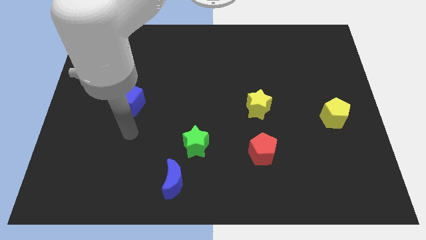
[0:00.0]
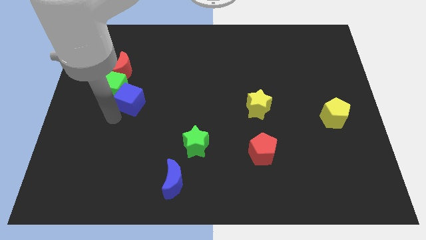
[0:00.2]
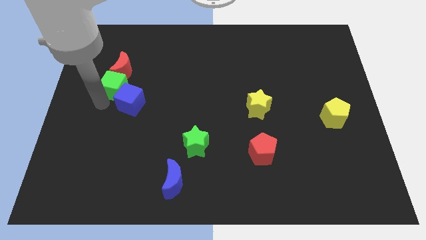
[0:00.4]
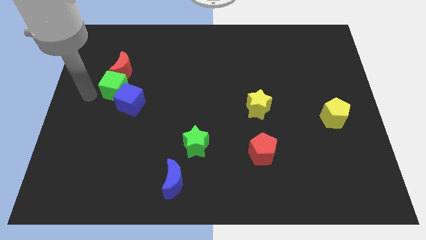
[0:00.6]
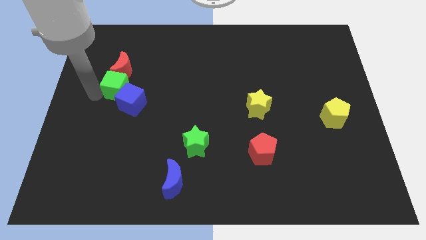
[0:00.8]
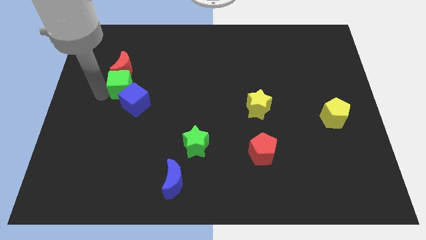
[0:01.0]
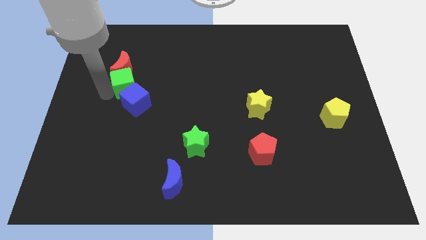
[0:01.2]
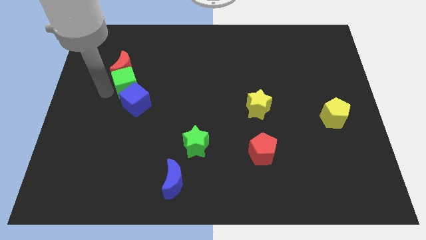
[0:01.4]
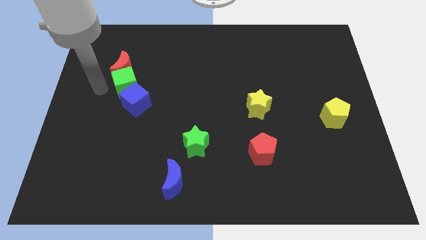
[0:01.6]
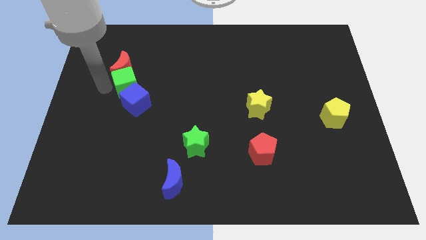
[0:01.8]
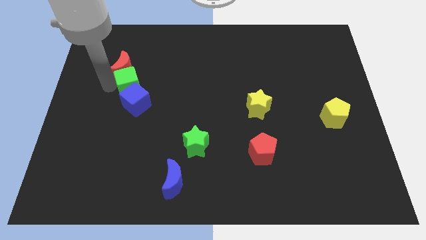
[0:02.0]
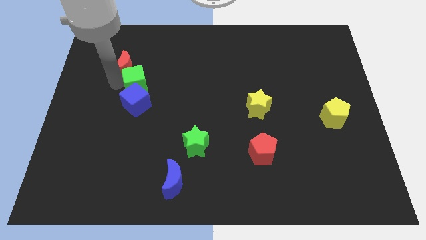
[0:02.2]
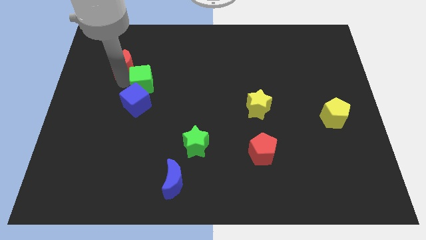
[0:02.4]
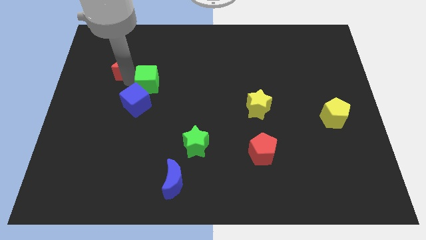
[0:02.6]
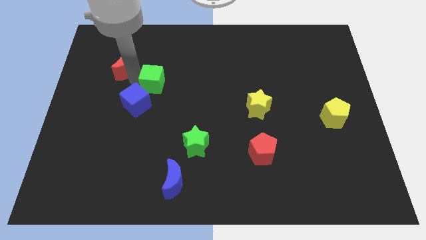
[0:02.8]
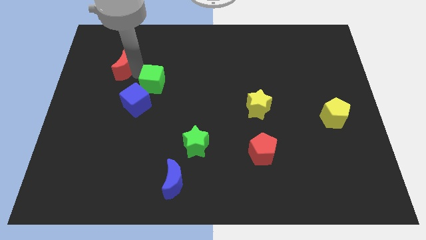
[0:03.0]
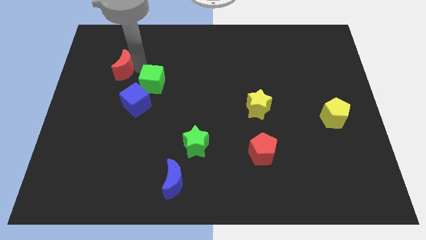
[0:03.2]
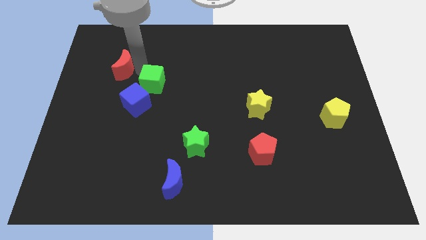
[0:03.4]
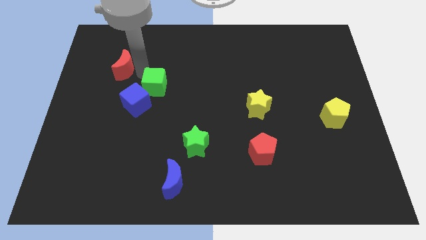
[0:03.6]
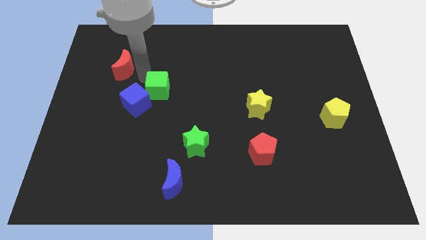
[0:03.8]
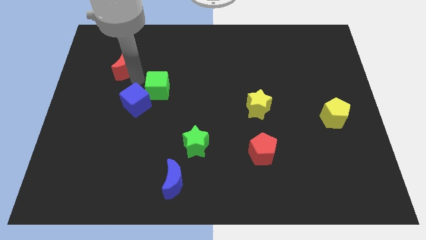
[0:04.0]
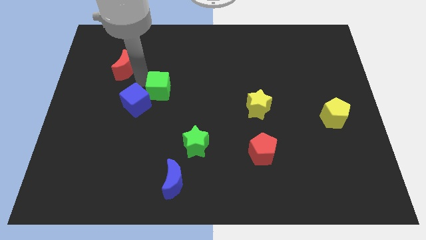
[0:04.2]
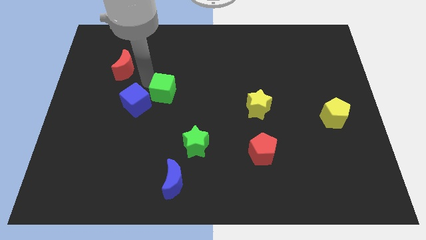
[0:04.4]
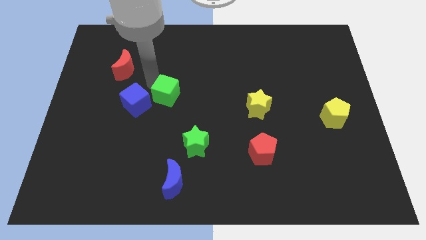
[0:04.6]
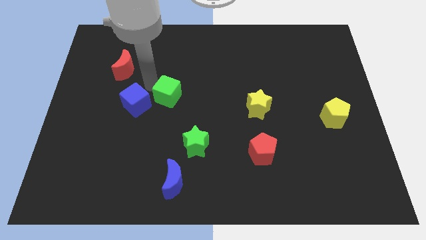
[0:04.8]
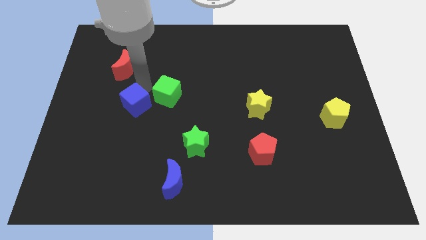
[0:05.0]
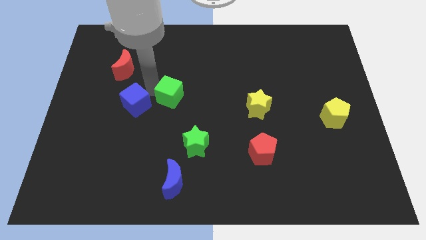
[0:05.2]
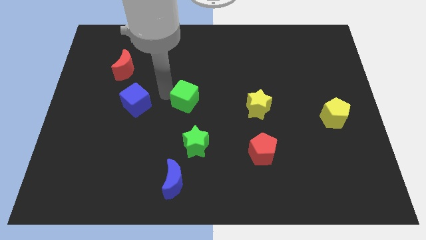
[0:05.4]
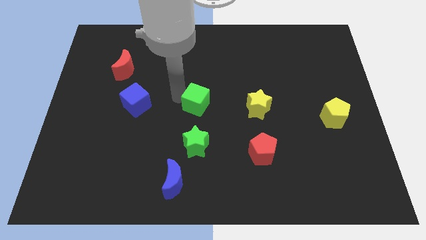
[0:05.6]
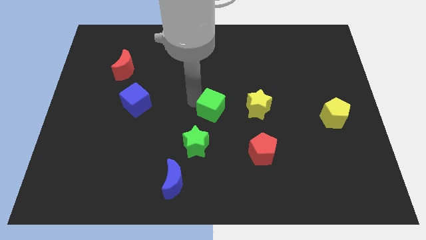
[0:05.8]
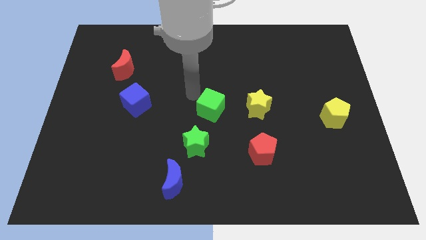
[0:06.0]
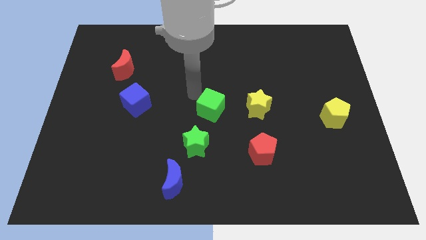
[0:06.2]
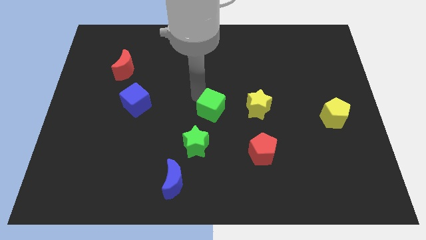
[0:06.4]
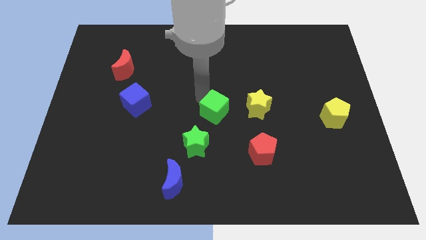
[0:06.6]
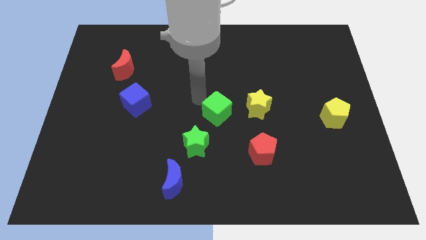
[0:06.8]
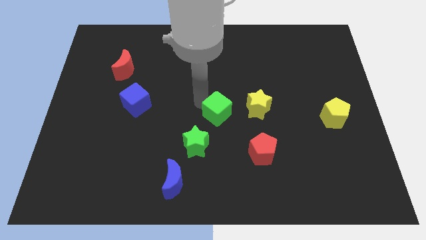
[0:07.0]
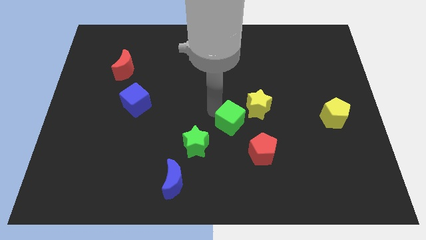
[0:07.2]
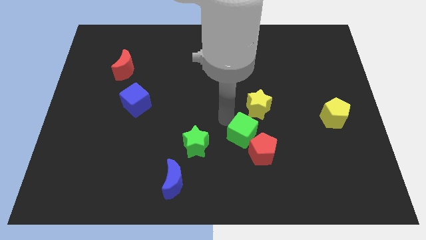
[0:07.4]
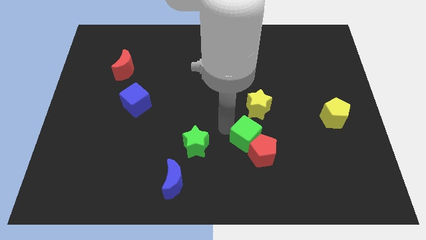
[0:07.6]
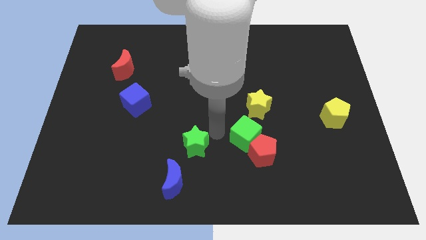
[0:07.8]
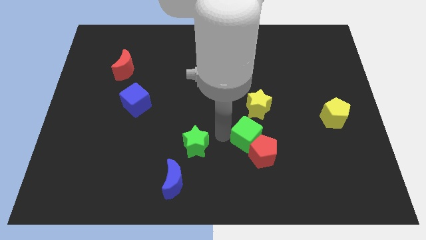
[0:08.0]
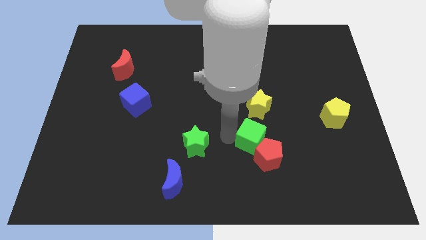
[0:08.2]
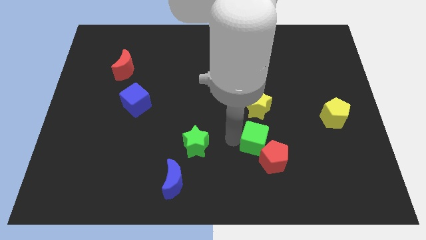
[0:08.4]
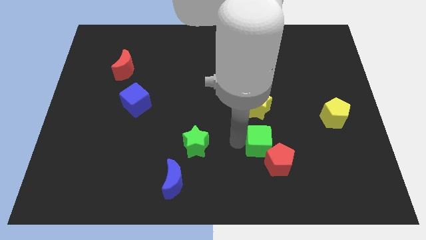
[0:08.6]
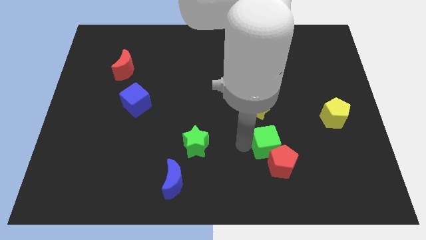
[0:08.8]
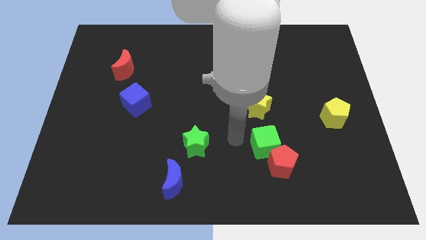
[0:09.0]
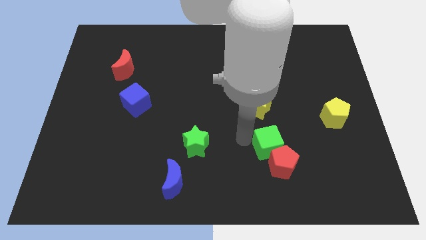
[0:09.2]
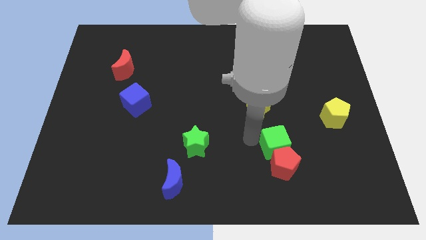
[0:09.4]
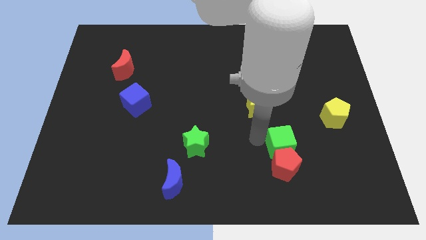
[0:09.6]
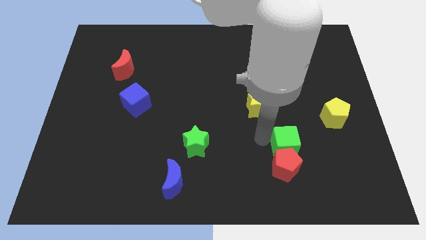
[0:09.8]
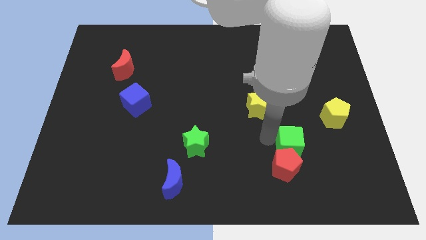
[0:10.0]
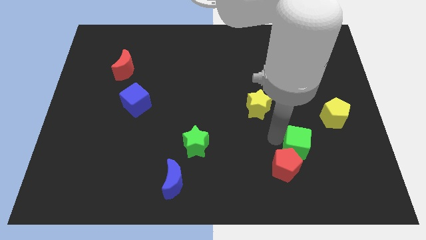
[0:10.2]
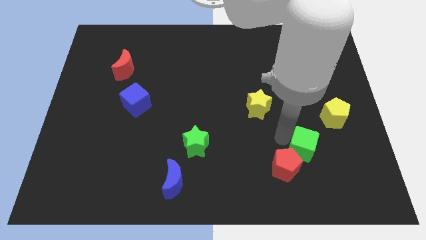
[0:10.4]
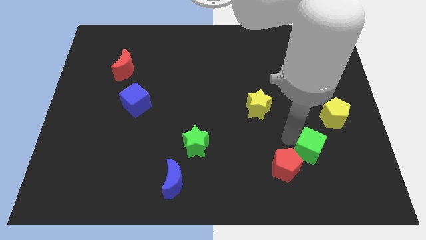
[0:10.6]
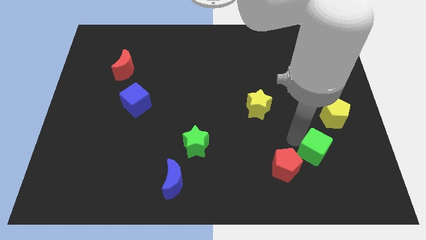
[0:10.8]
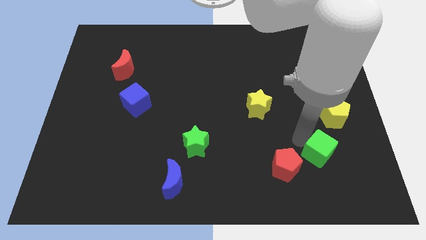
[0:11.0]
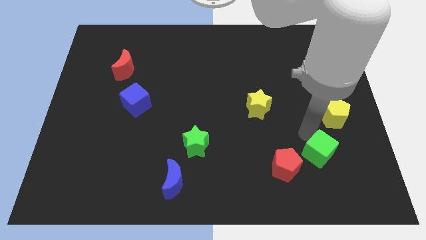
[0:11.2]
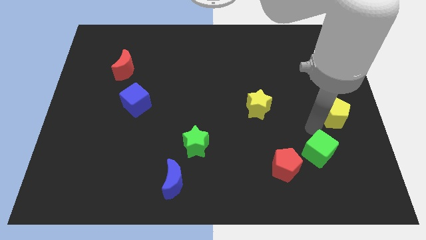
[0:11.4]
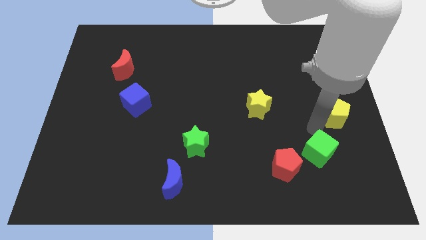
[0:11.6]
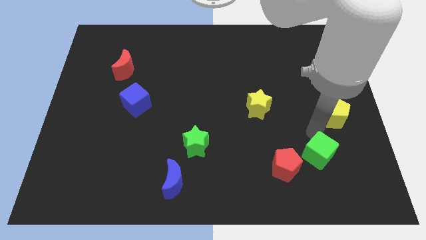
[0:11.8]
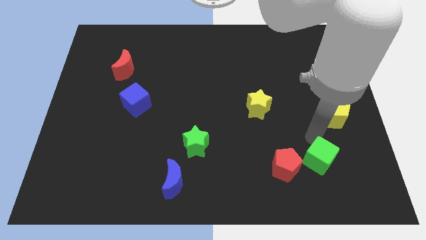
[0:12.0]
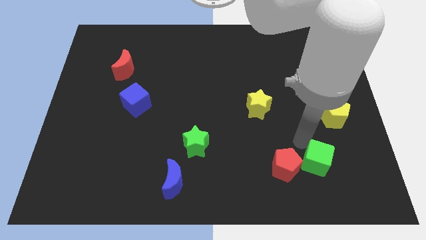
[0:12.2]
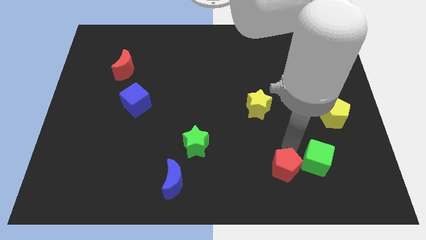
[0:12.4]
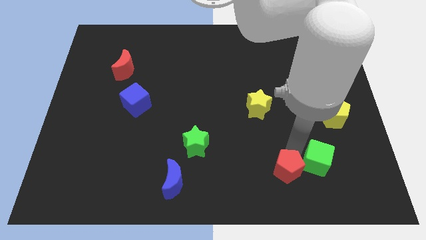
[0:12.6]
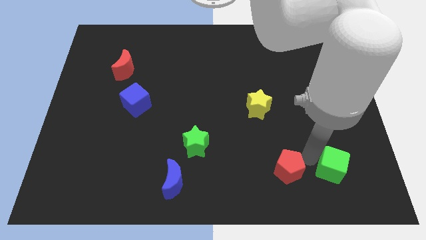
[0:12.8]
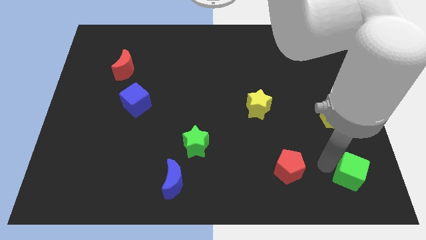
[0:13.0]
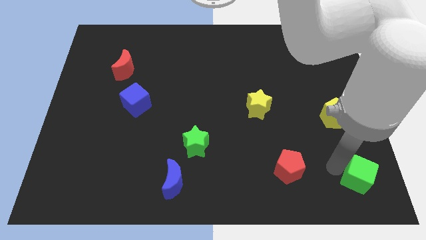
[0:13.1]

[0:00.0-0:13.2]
slide the green cube to the bottom right
